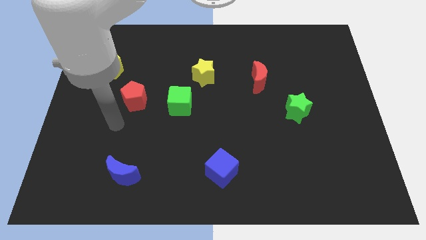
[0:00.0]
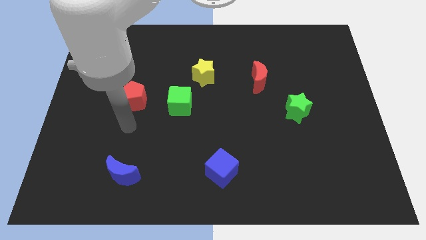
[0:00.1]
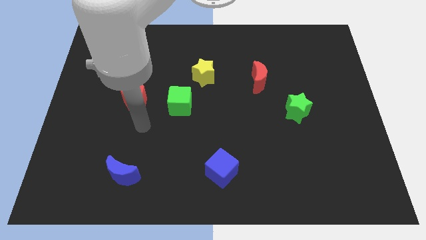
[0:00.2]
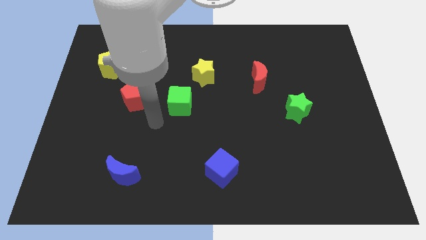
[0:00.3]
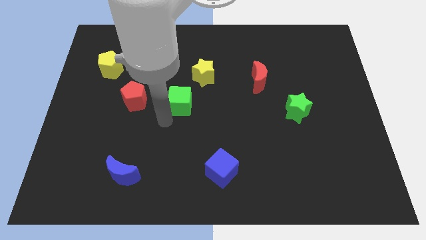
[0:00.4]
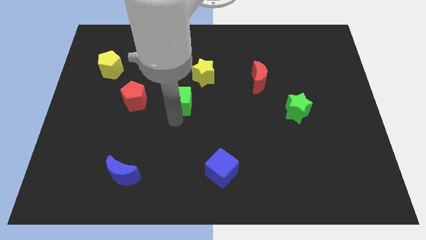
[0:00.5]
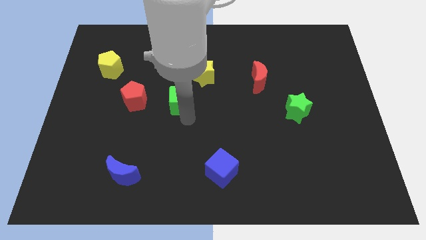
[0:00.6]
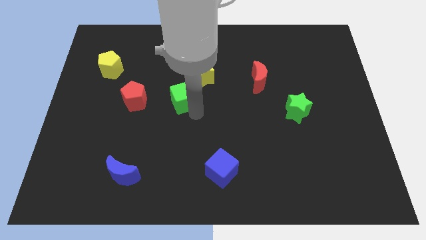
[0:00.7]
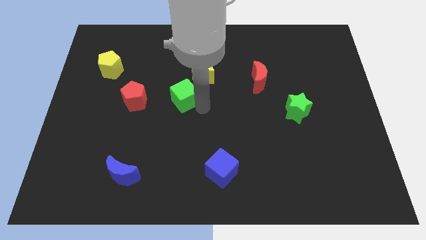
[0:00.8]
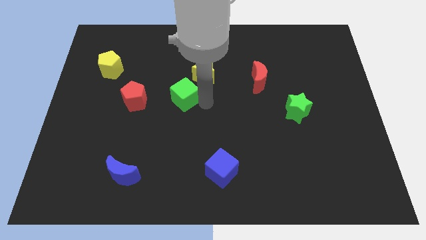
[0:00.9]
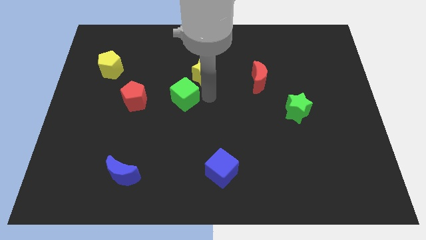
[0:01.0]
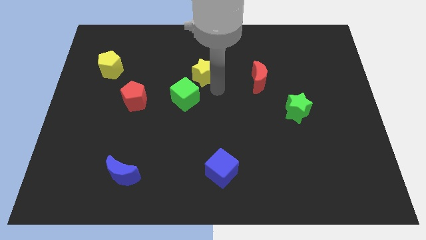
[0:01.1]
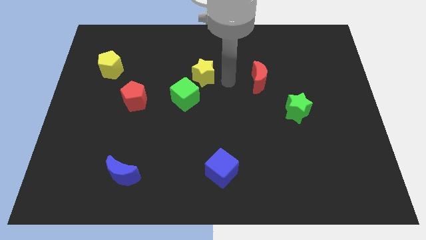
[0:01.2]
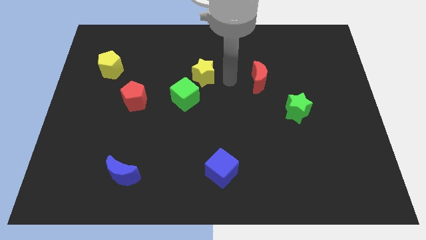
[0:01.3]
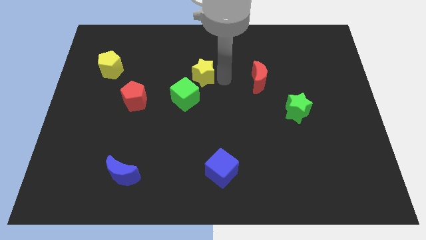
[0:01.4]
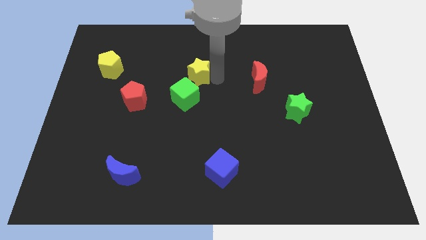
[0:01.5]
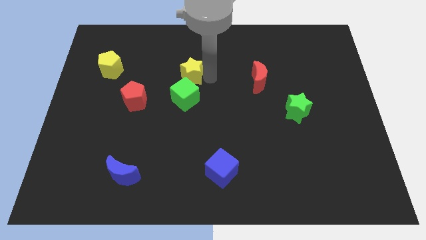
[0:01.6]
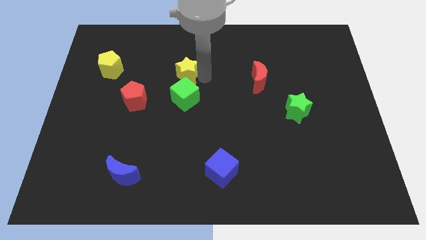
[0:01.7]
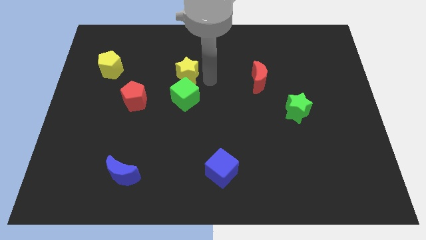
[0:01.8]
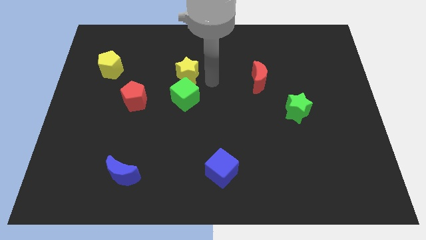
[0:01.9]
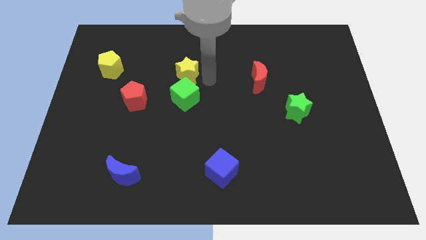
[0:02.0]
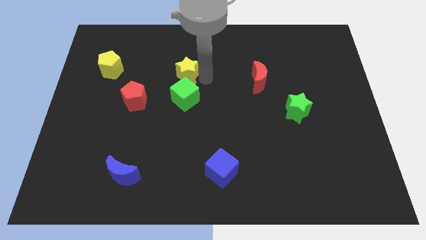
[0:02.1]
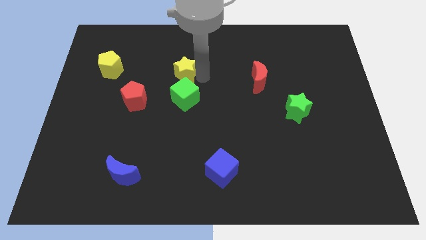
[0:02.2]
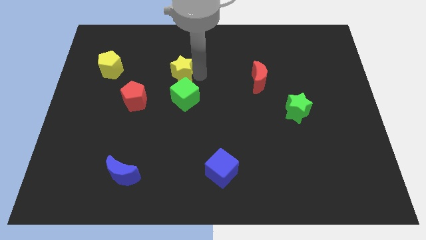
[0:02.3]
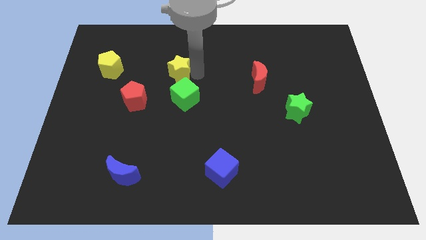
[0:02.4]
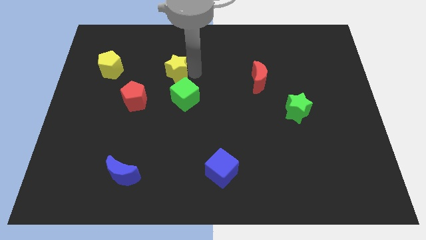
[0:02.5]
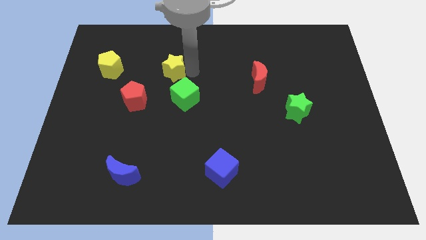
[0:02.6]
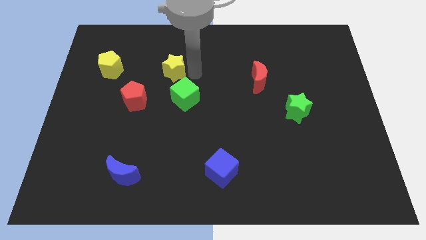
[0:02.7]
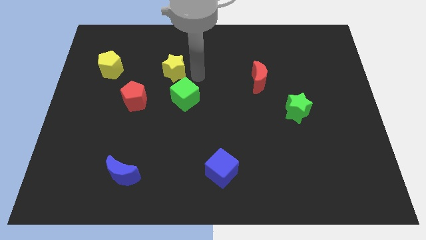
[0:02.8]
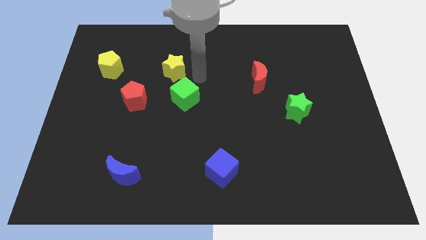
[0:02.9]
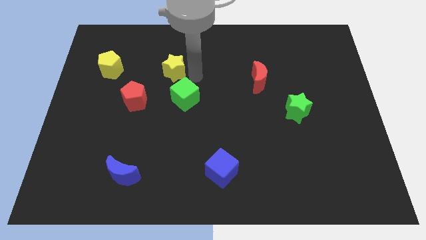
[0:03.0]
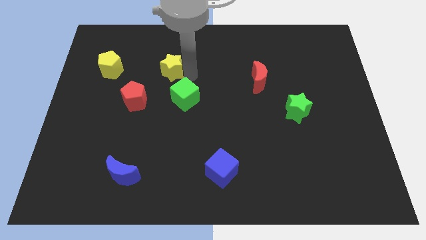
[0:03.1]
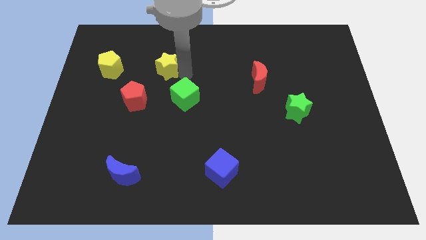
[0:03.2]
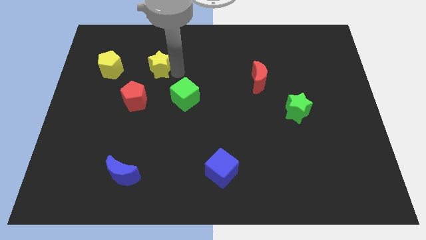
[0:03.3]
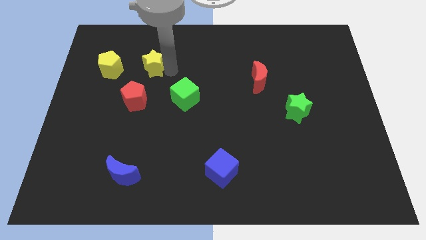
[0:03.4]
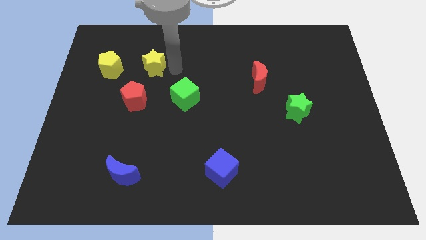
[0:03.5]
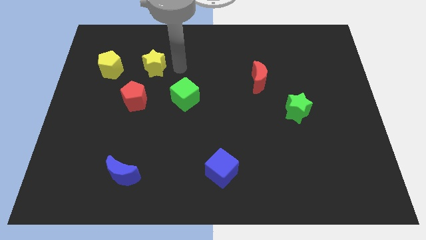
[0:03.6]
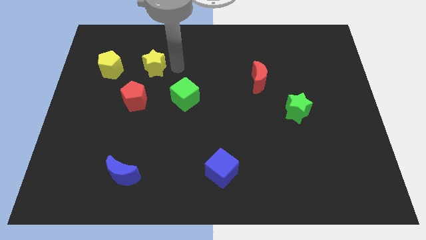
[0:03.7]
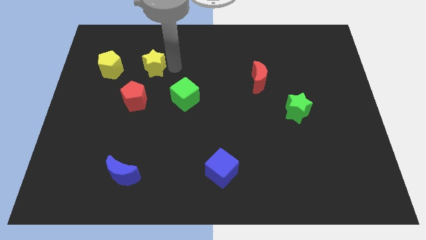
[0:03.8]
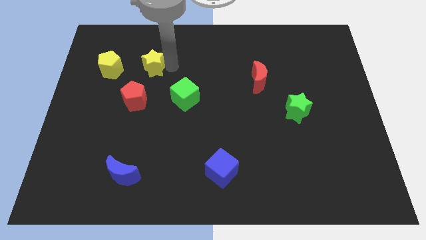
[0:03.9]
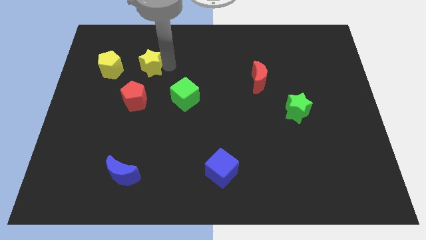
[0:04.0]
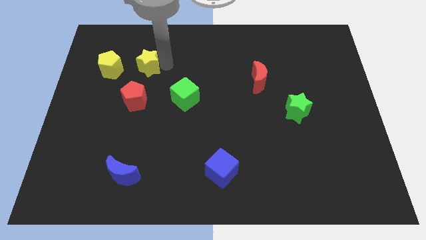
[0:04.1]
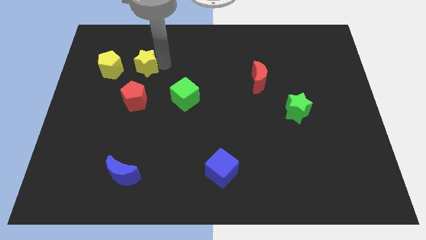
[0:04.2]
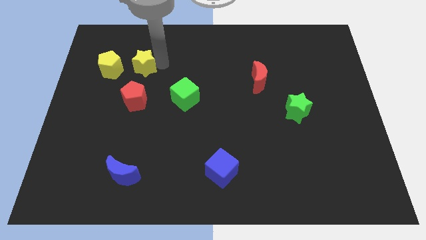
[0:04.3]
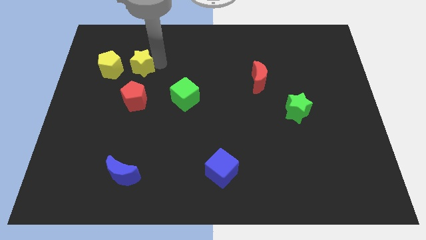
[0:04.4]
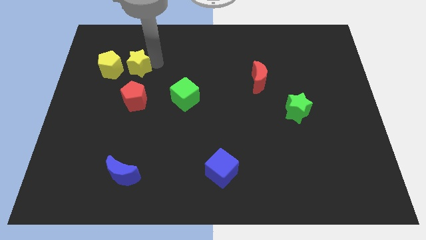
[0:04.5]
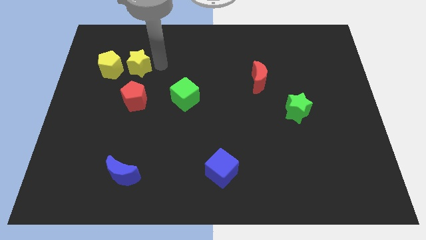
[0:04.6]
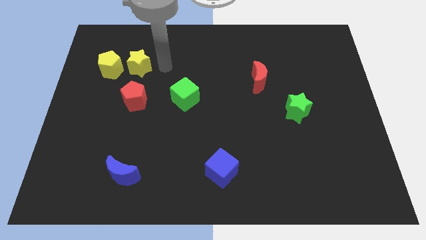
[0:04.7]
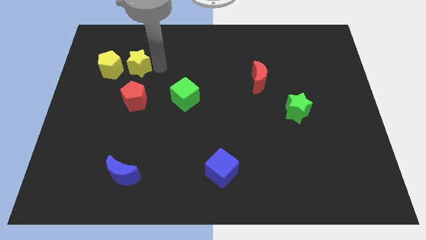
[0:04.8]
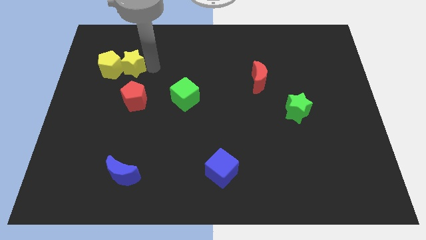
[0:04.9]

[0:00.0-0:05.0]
move the yellow star to the yellow pentagon

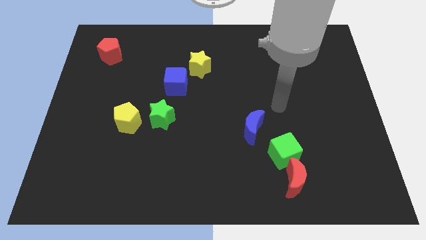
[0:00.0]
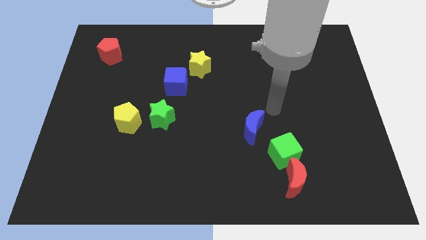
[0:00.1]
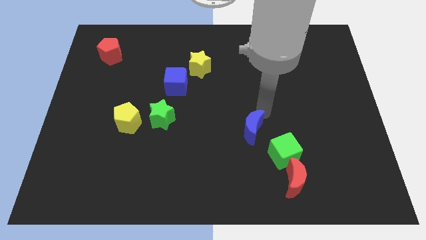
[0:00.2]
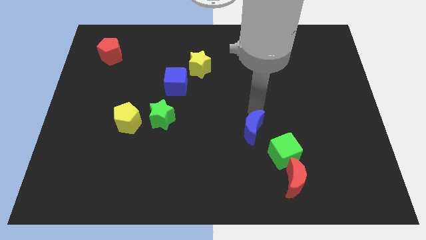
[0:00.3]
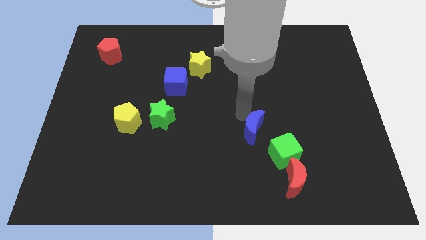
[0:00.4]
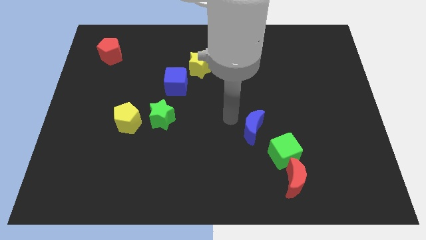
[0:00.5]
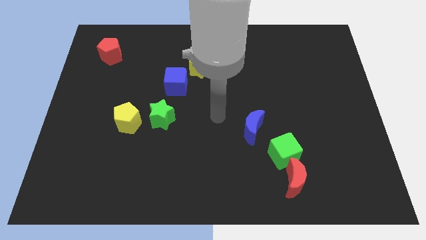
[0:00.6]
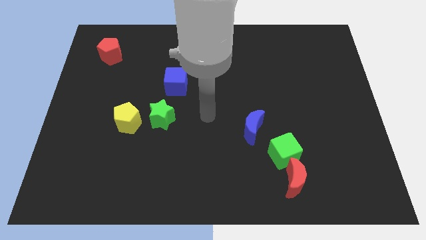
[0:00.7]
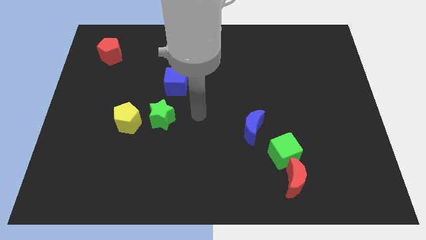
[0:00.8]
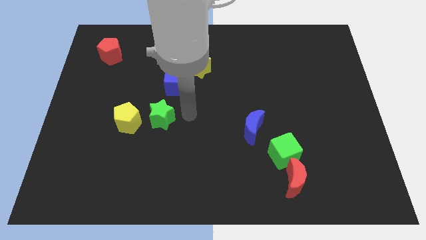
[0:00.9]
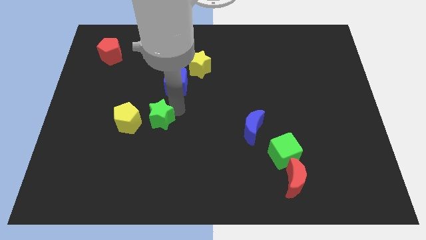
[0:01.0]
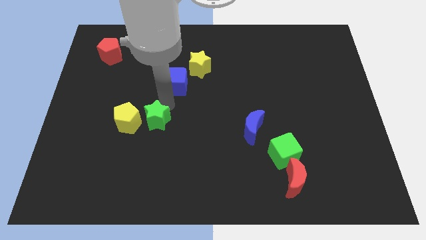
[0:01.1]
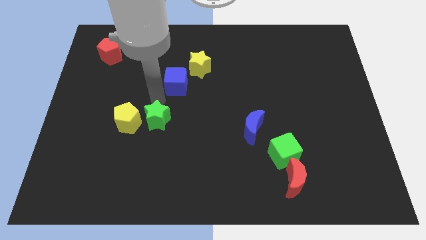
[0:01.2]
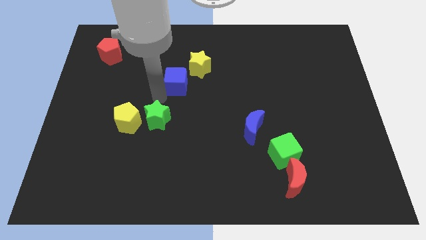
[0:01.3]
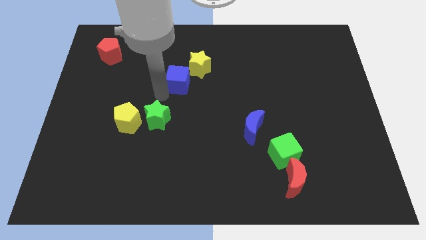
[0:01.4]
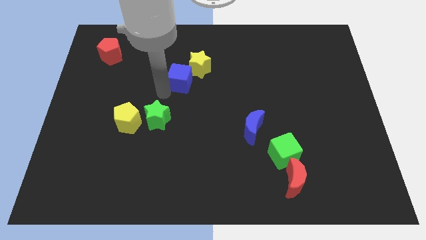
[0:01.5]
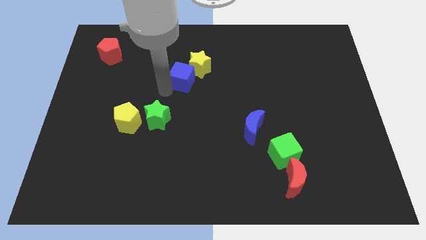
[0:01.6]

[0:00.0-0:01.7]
push the blue cube next to the yellow star
